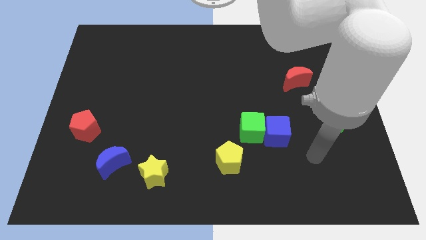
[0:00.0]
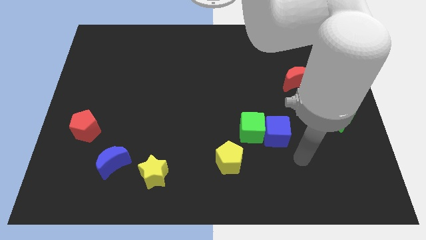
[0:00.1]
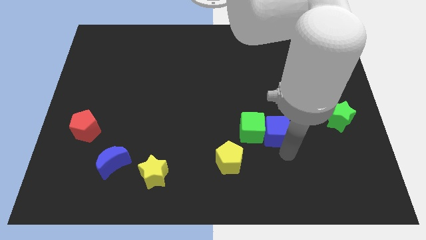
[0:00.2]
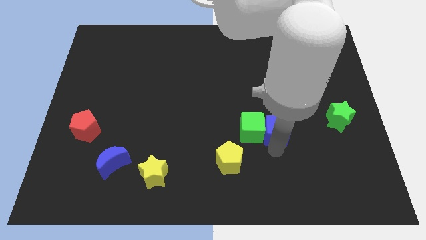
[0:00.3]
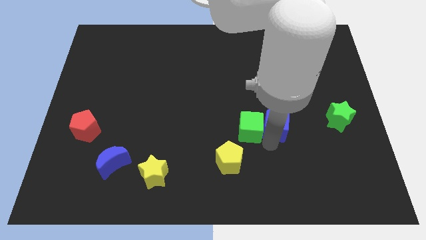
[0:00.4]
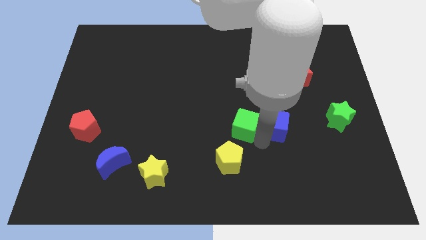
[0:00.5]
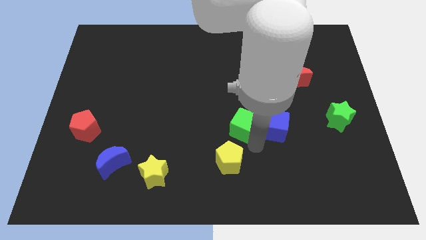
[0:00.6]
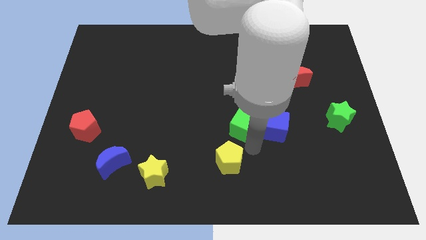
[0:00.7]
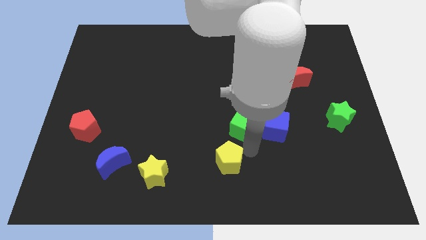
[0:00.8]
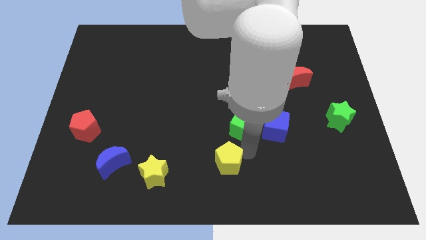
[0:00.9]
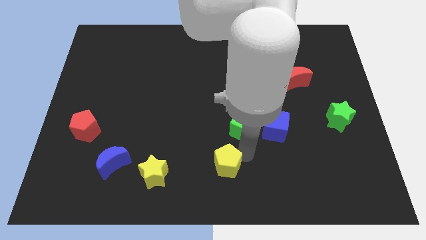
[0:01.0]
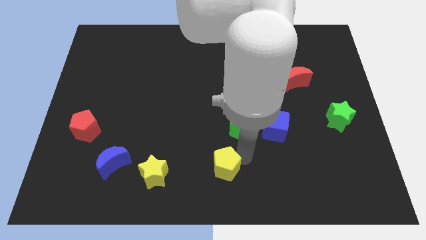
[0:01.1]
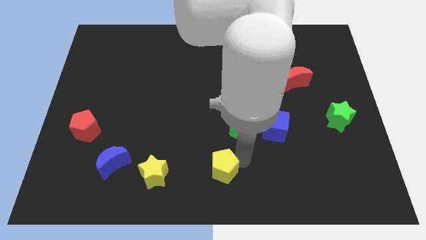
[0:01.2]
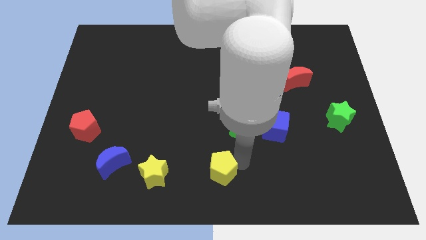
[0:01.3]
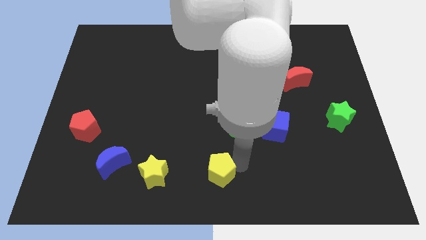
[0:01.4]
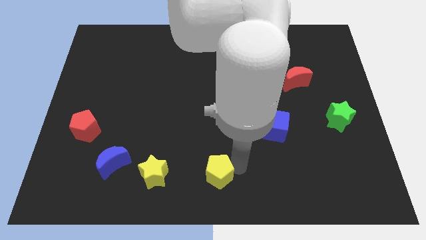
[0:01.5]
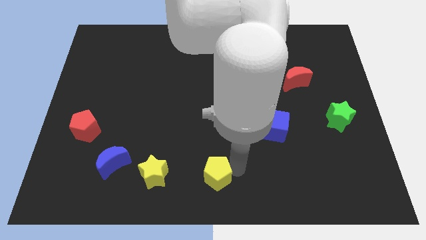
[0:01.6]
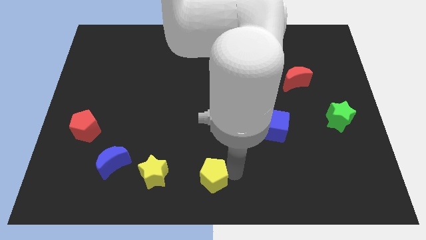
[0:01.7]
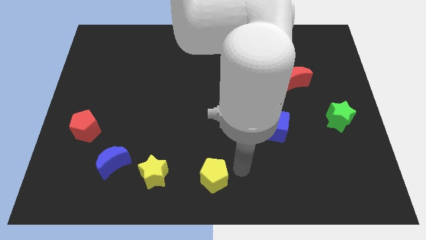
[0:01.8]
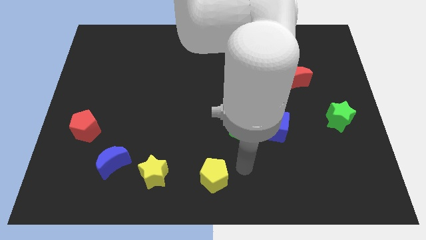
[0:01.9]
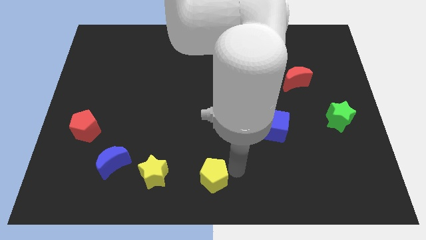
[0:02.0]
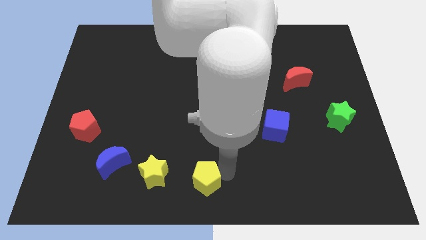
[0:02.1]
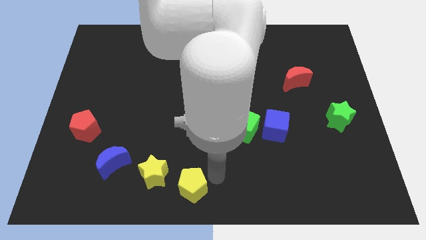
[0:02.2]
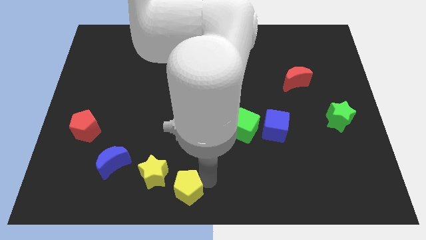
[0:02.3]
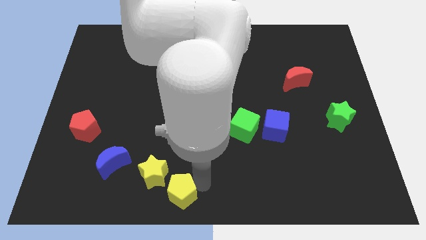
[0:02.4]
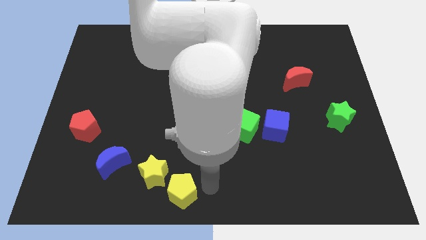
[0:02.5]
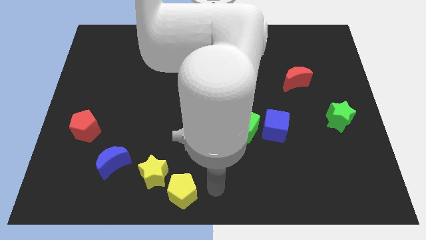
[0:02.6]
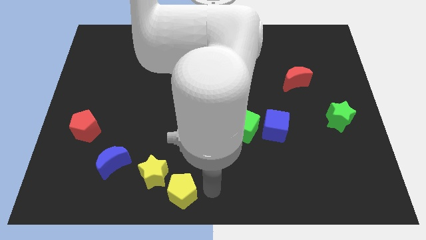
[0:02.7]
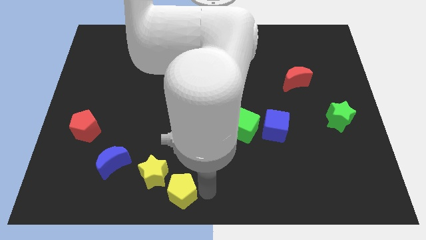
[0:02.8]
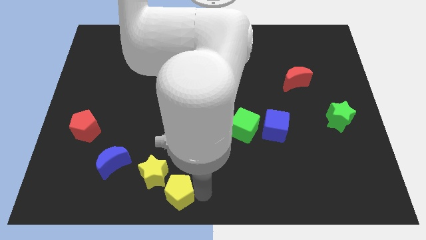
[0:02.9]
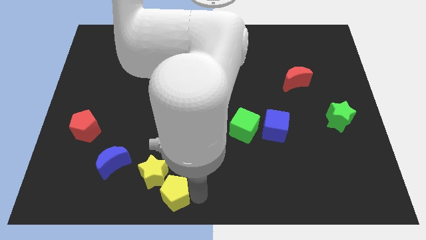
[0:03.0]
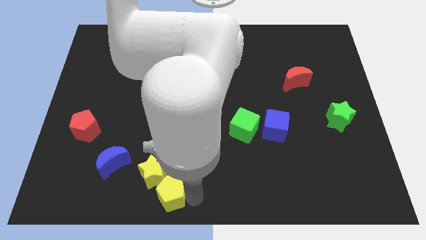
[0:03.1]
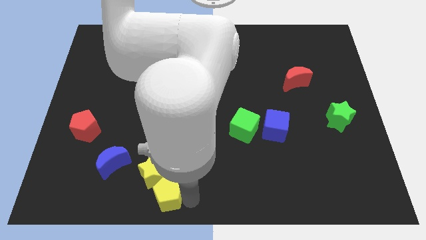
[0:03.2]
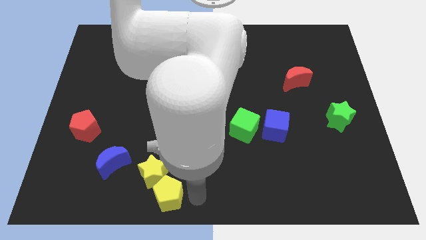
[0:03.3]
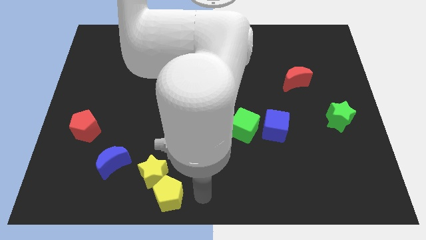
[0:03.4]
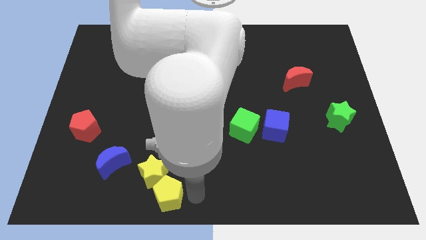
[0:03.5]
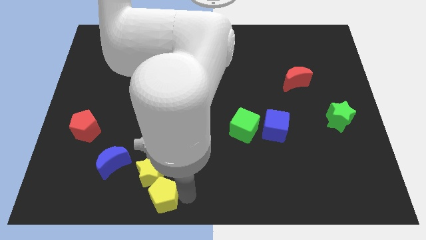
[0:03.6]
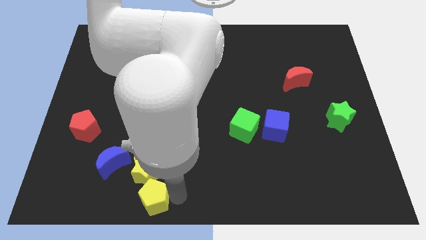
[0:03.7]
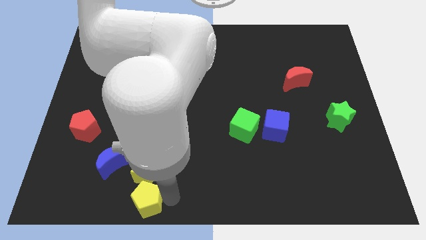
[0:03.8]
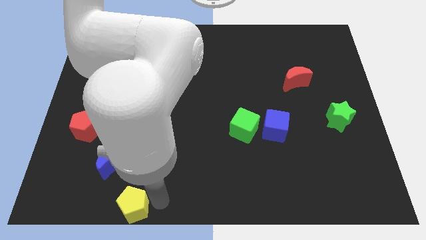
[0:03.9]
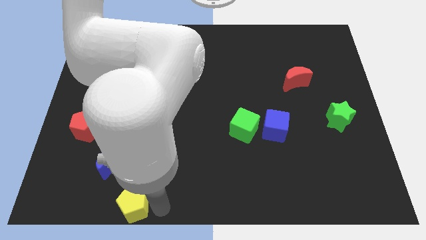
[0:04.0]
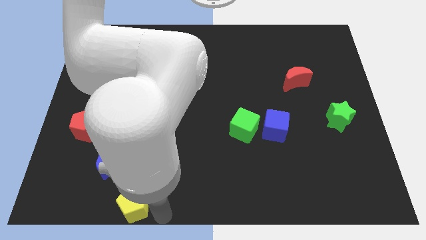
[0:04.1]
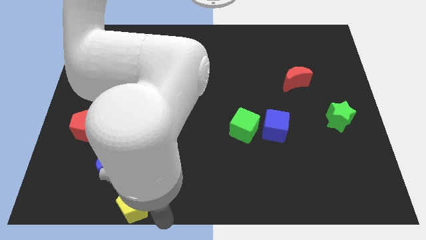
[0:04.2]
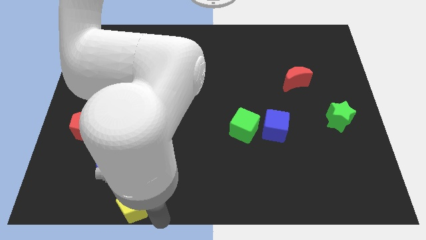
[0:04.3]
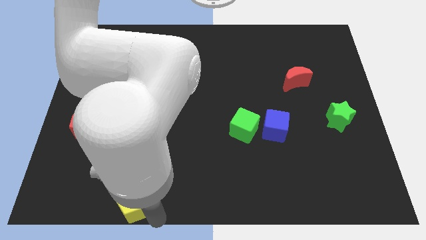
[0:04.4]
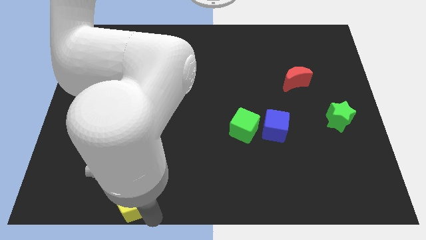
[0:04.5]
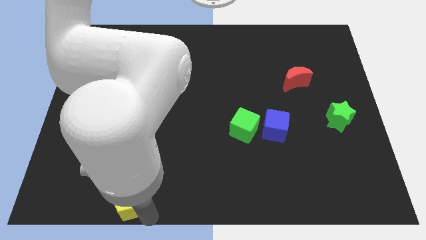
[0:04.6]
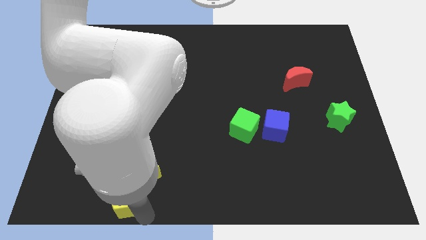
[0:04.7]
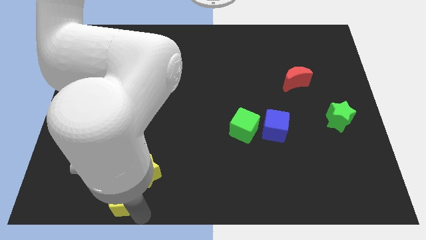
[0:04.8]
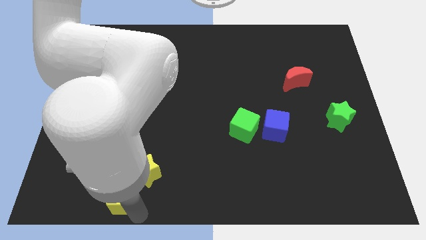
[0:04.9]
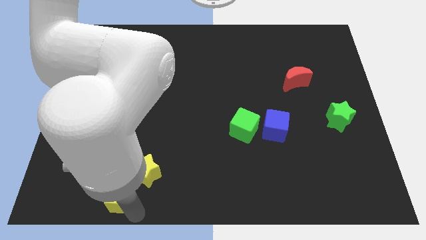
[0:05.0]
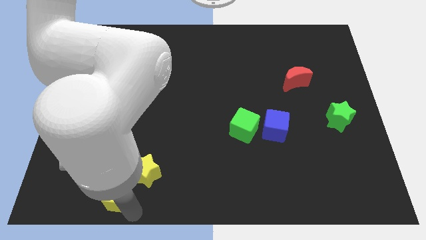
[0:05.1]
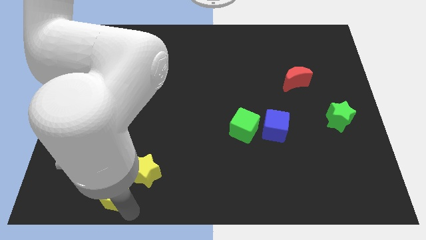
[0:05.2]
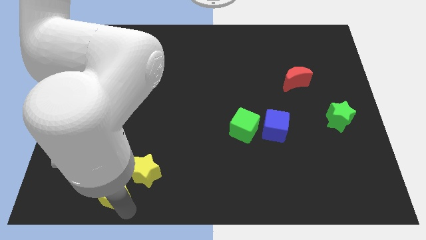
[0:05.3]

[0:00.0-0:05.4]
push the yellow pentagon to the left of the yellow star

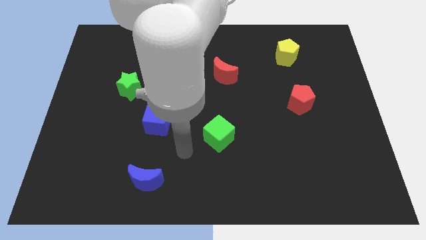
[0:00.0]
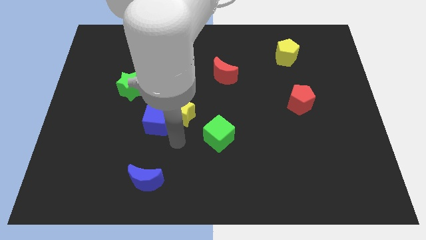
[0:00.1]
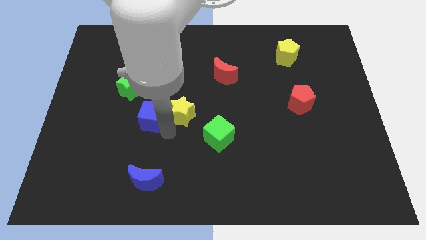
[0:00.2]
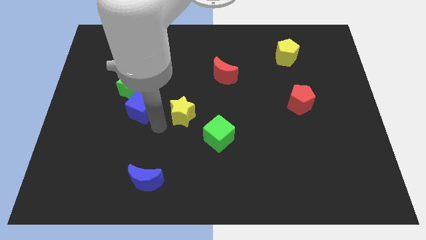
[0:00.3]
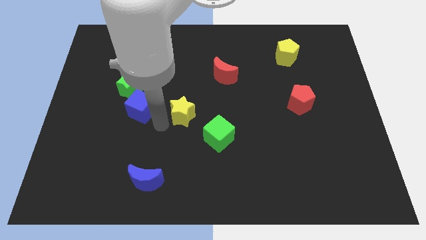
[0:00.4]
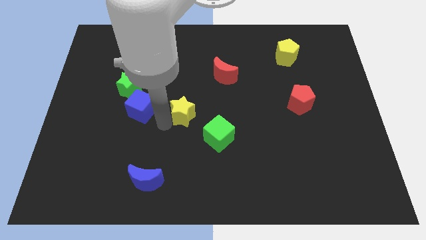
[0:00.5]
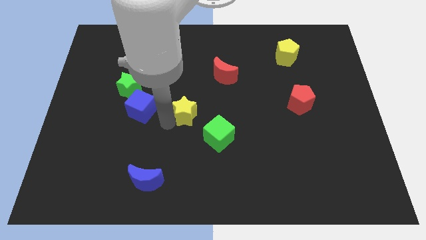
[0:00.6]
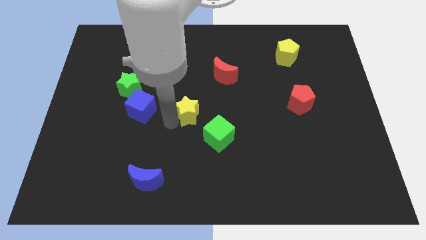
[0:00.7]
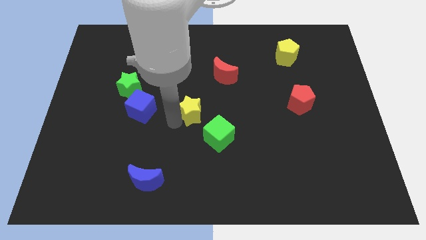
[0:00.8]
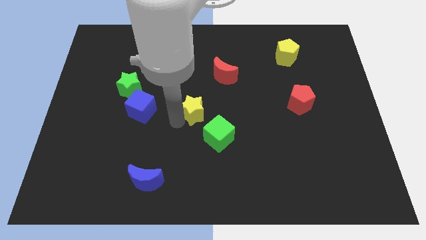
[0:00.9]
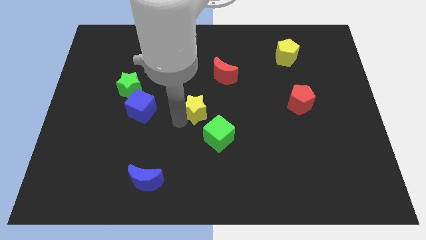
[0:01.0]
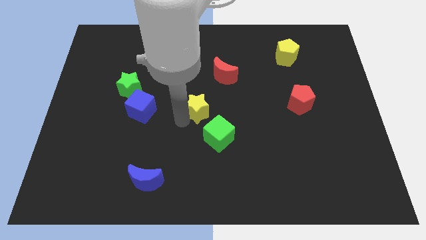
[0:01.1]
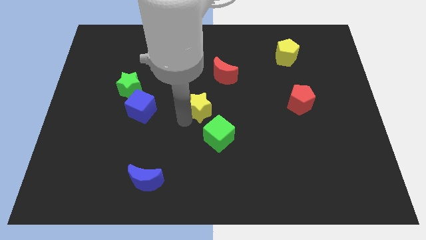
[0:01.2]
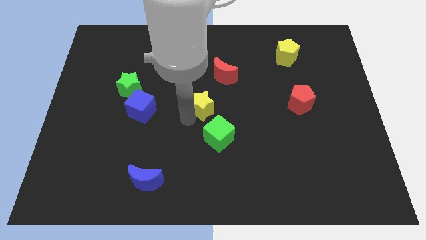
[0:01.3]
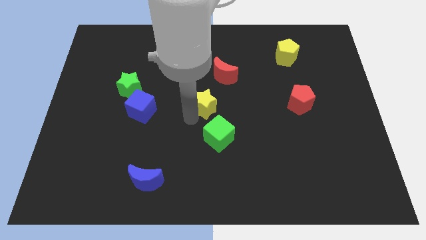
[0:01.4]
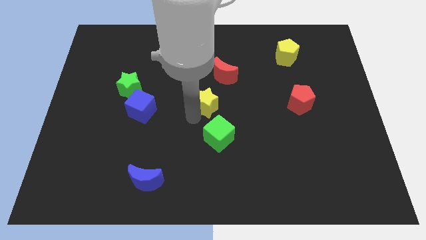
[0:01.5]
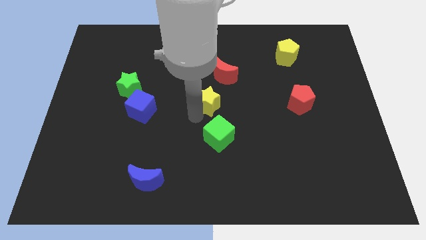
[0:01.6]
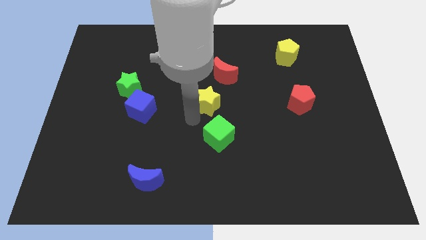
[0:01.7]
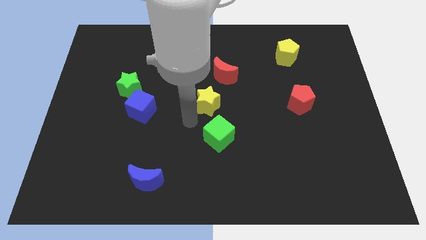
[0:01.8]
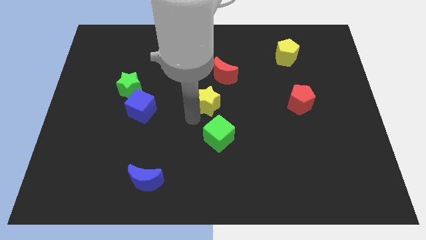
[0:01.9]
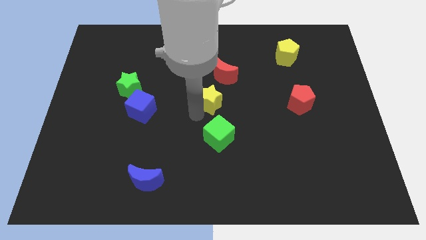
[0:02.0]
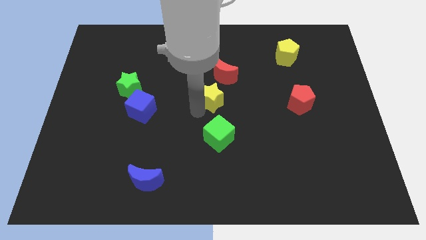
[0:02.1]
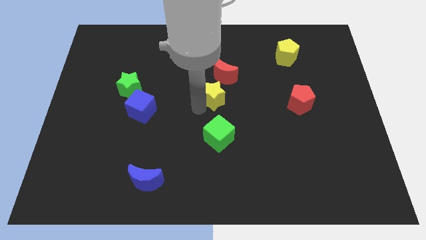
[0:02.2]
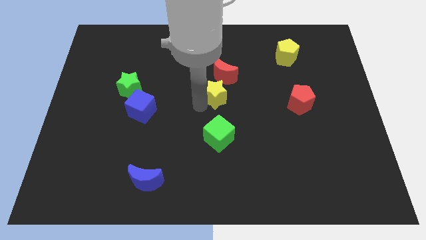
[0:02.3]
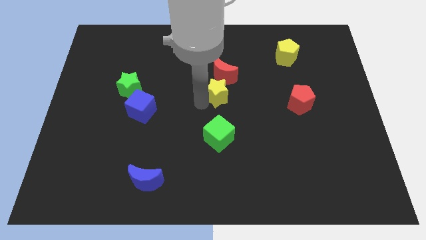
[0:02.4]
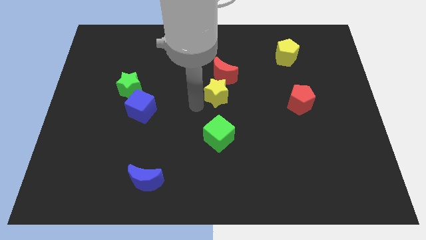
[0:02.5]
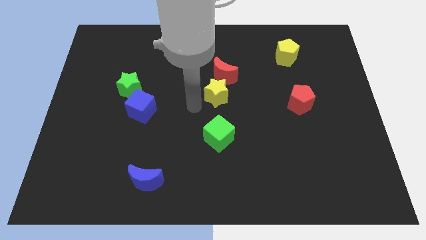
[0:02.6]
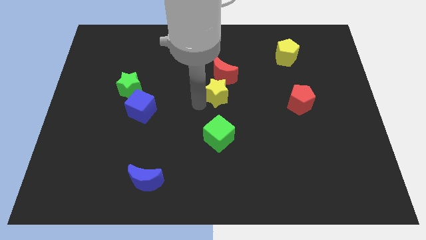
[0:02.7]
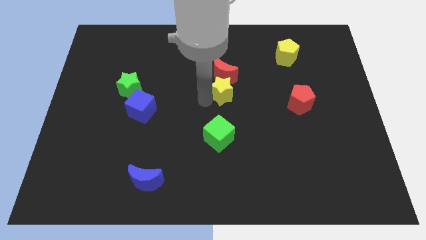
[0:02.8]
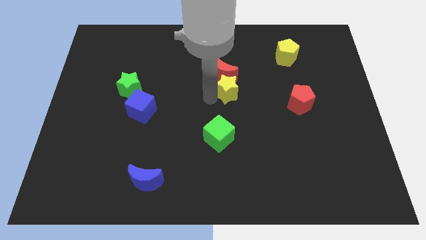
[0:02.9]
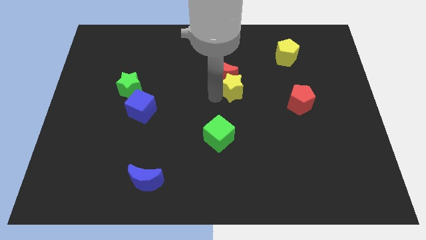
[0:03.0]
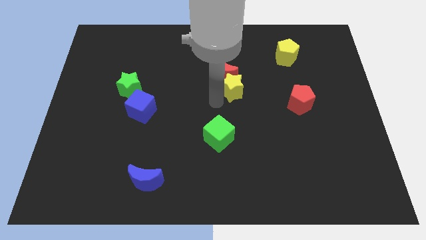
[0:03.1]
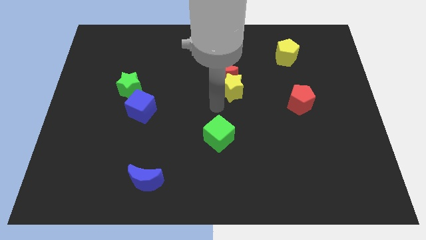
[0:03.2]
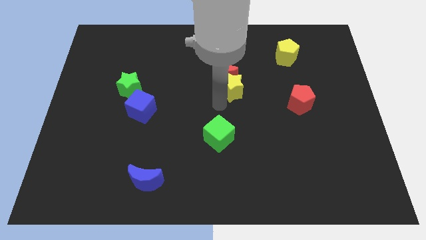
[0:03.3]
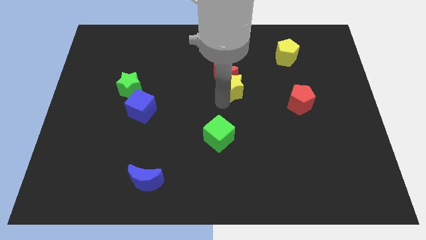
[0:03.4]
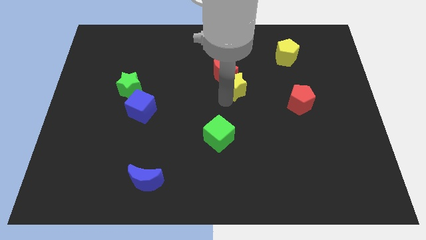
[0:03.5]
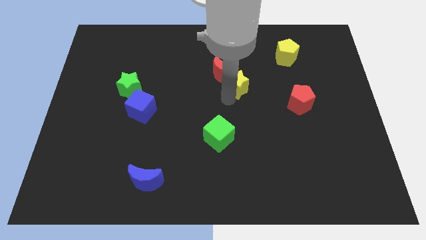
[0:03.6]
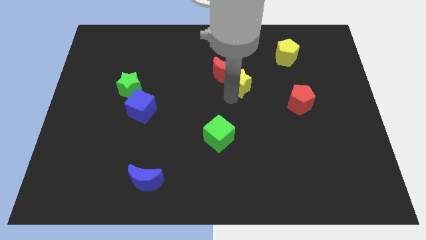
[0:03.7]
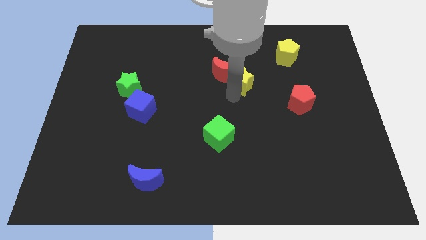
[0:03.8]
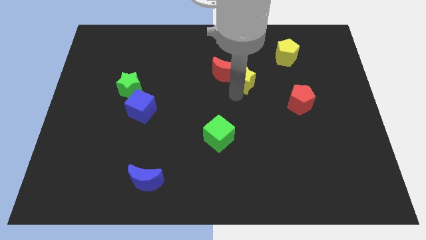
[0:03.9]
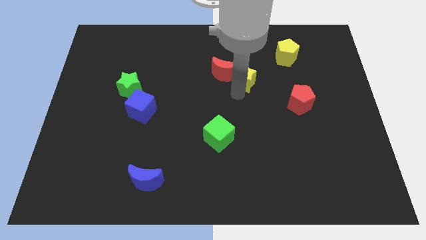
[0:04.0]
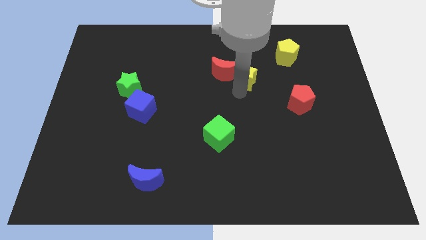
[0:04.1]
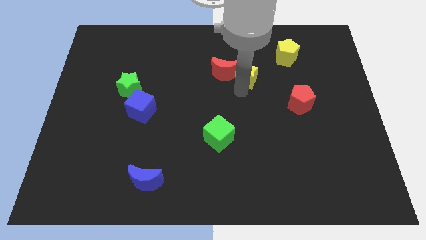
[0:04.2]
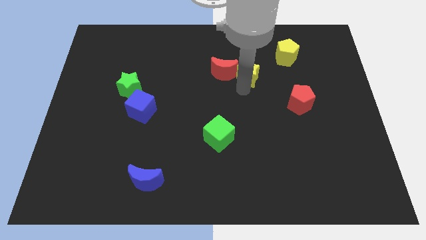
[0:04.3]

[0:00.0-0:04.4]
put the yellow star to the top right of the red moon
